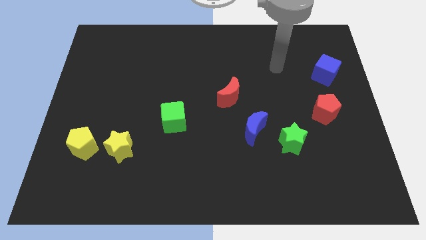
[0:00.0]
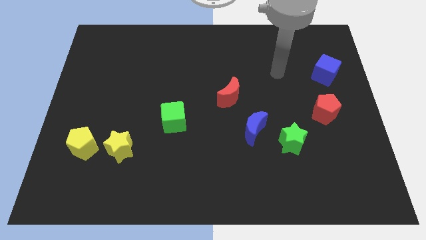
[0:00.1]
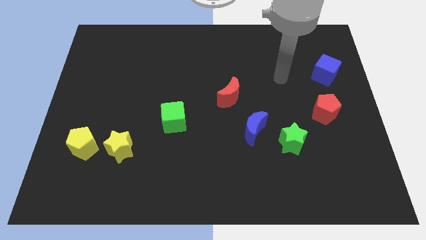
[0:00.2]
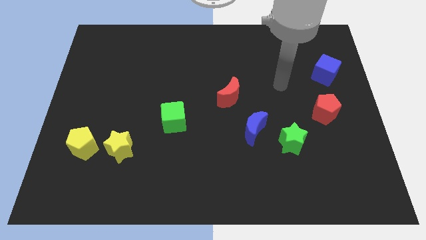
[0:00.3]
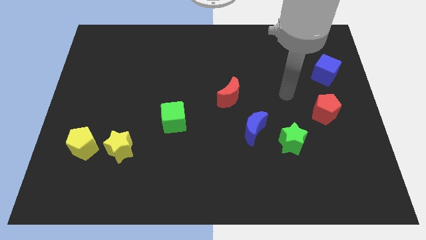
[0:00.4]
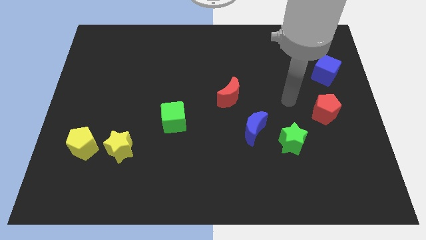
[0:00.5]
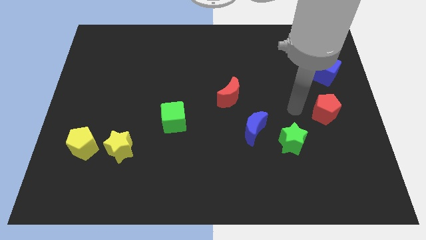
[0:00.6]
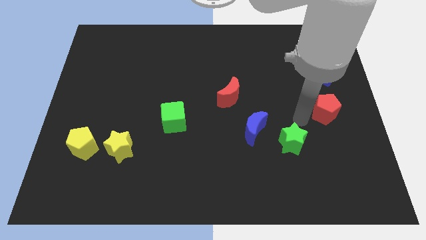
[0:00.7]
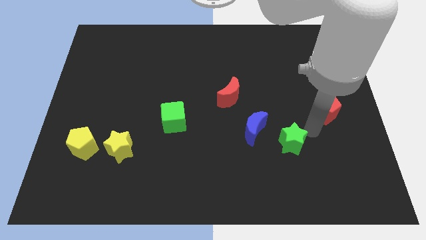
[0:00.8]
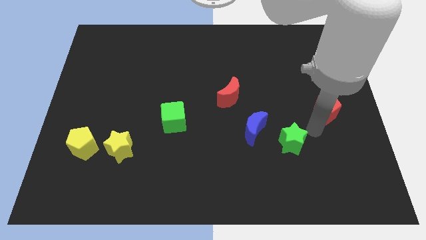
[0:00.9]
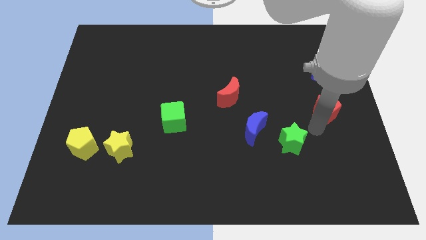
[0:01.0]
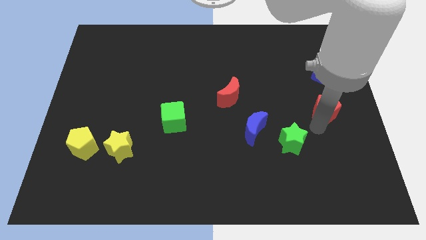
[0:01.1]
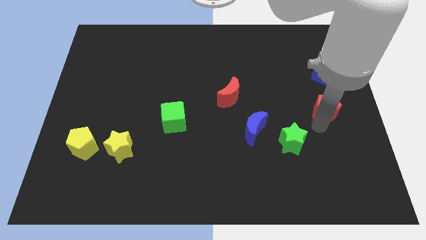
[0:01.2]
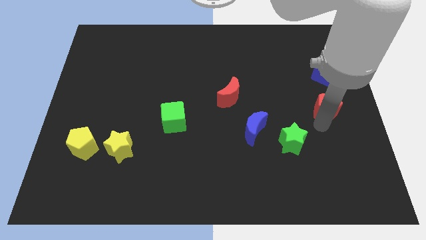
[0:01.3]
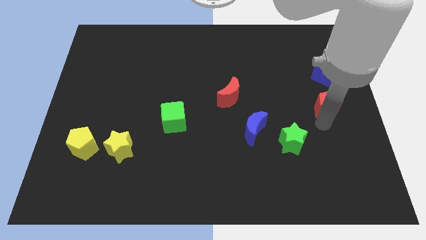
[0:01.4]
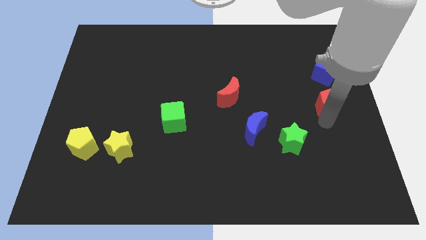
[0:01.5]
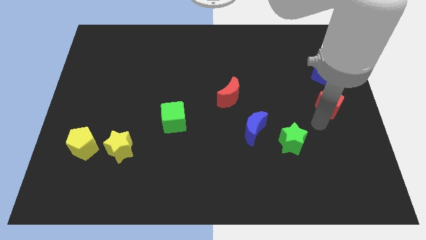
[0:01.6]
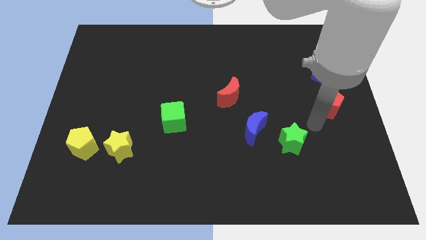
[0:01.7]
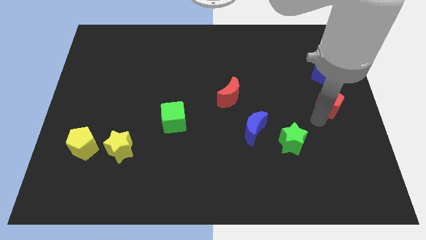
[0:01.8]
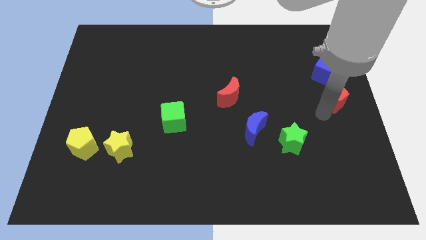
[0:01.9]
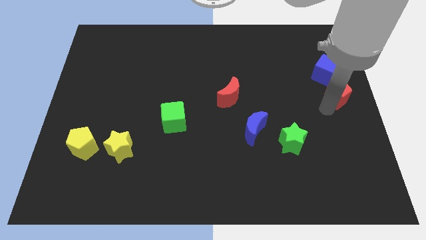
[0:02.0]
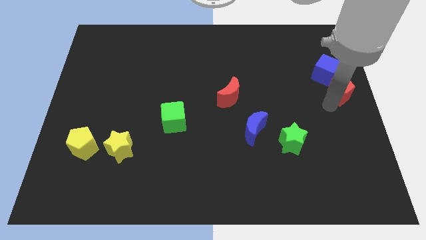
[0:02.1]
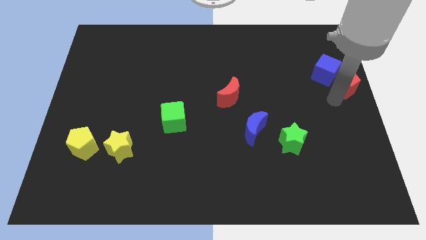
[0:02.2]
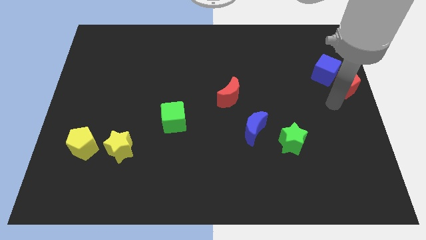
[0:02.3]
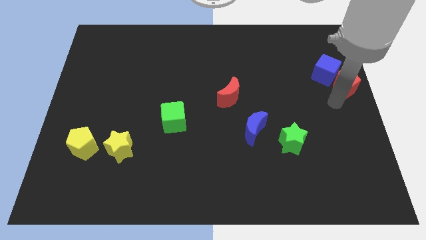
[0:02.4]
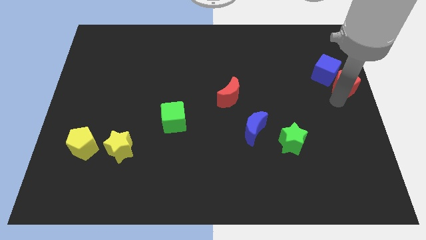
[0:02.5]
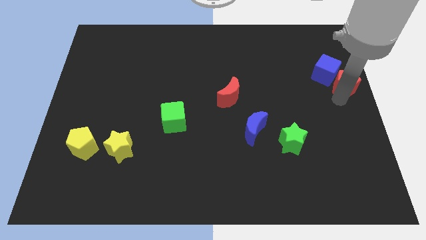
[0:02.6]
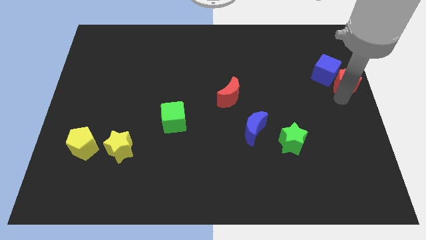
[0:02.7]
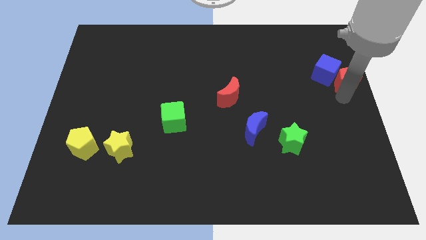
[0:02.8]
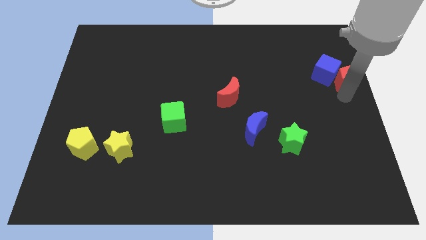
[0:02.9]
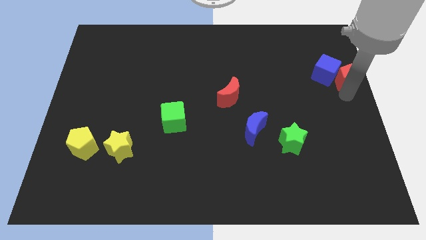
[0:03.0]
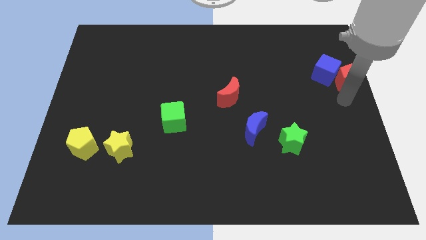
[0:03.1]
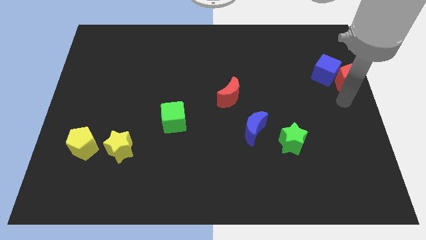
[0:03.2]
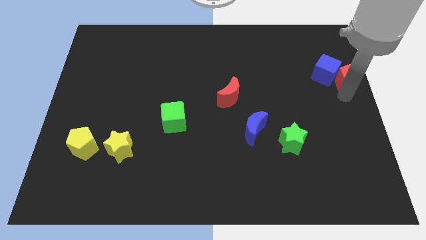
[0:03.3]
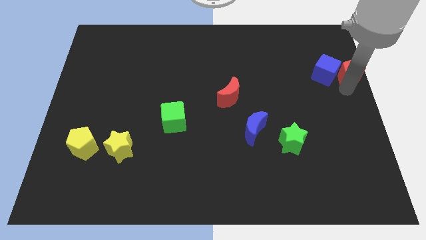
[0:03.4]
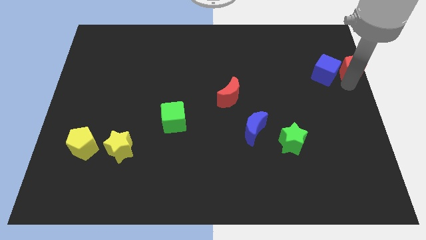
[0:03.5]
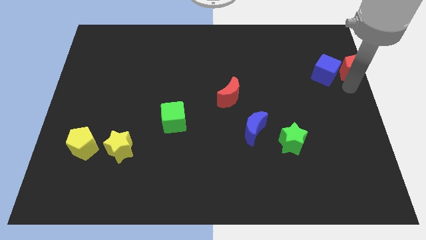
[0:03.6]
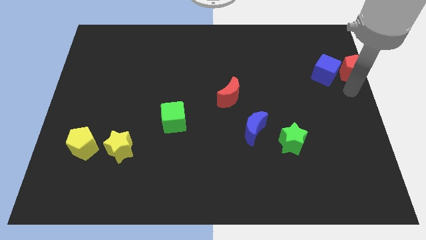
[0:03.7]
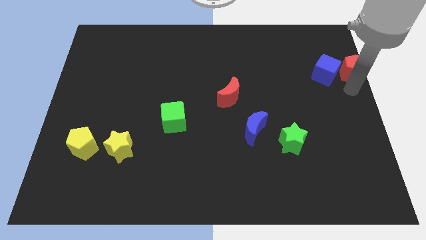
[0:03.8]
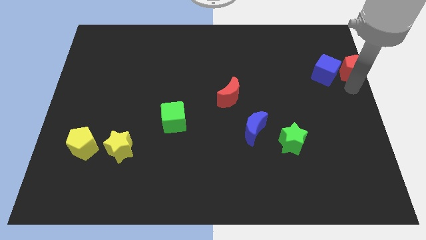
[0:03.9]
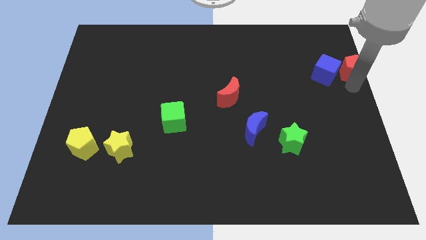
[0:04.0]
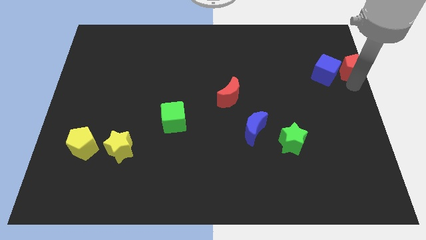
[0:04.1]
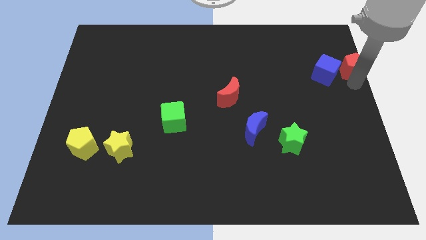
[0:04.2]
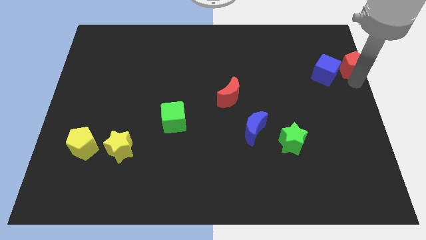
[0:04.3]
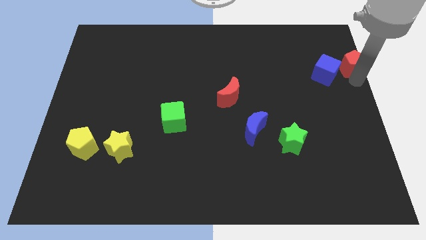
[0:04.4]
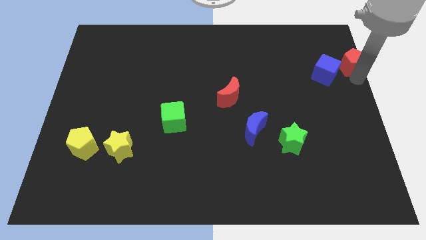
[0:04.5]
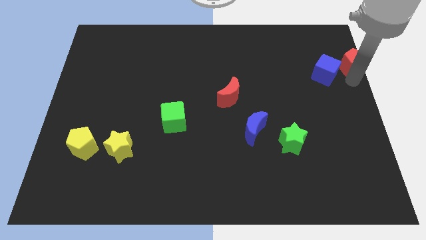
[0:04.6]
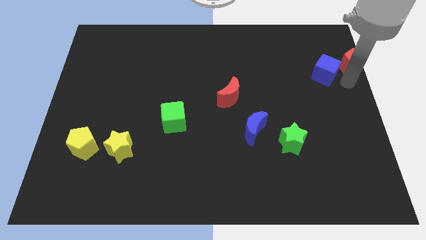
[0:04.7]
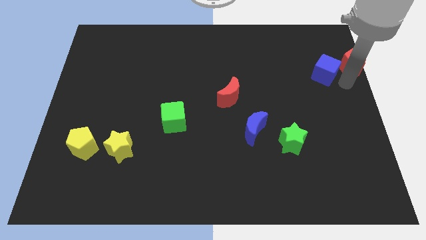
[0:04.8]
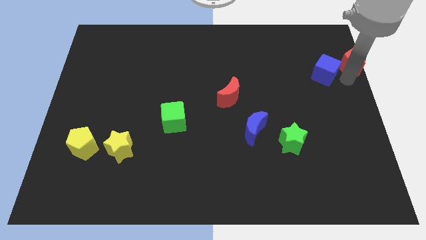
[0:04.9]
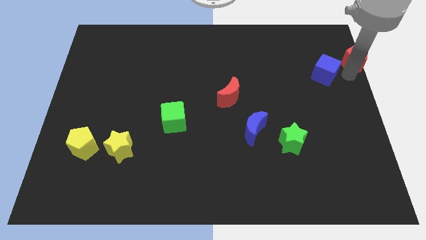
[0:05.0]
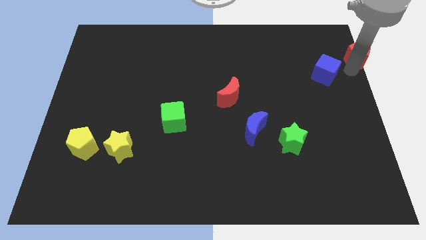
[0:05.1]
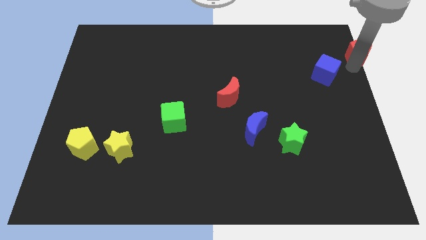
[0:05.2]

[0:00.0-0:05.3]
move the red pentagon to the upper right corner

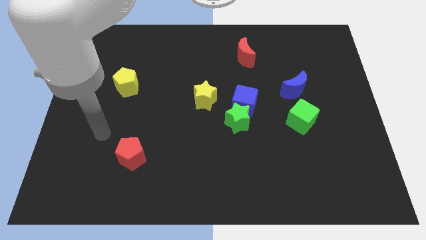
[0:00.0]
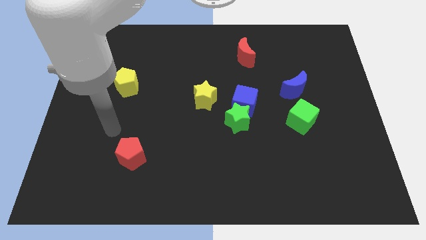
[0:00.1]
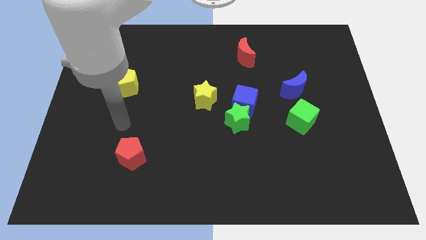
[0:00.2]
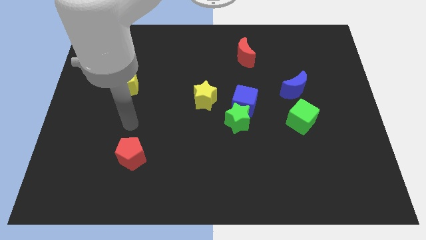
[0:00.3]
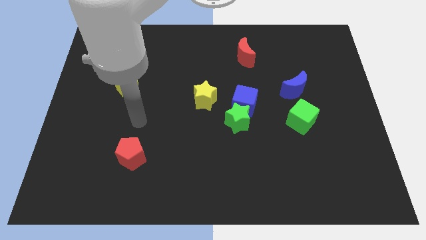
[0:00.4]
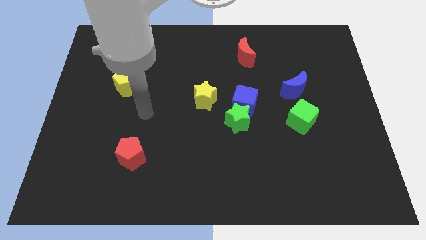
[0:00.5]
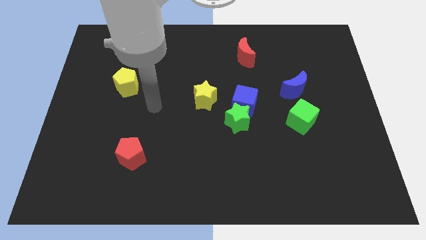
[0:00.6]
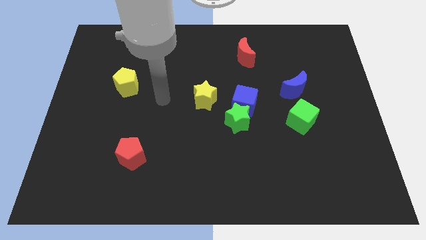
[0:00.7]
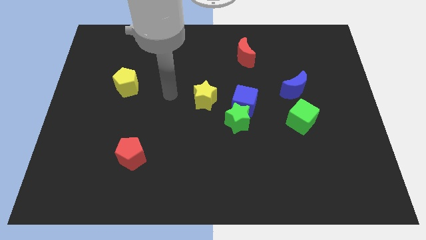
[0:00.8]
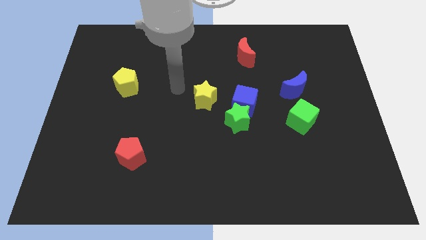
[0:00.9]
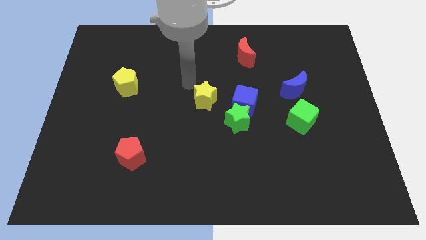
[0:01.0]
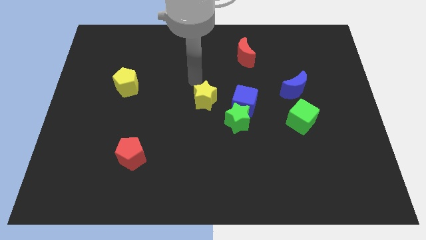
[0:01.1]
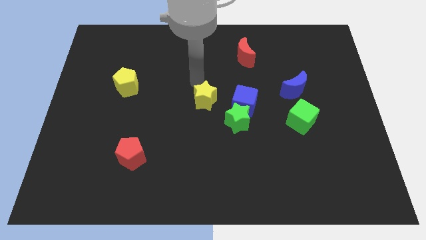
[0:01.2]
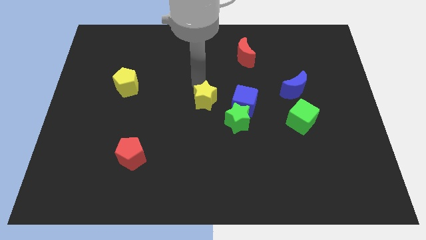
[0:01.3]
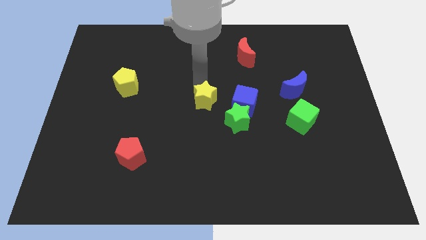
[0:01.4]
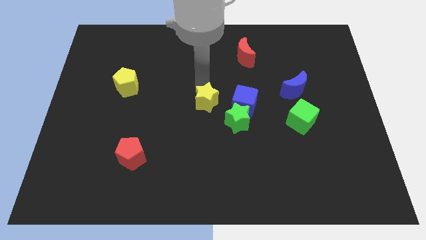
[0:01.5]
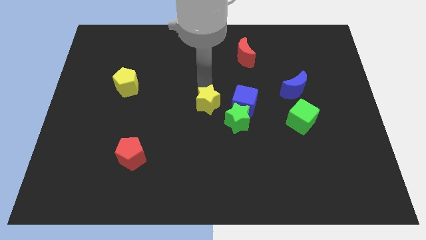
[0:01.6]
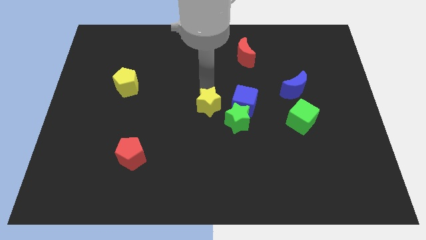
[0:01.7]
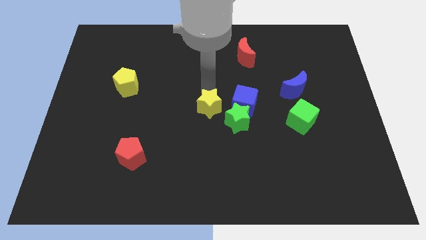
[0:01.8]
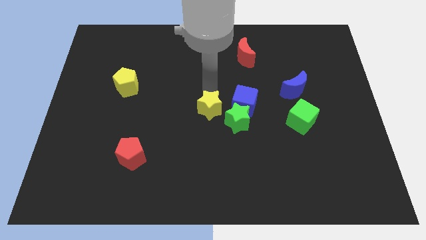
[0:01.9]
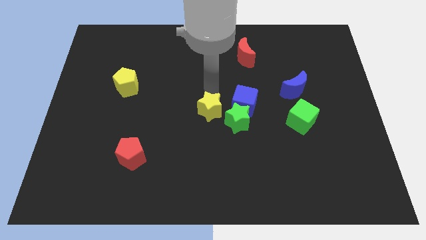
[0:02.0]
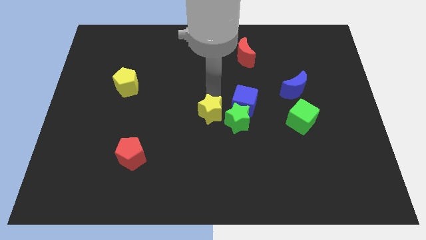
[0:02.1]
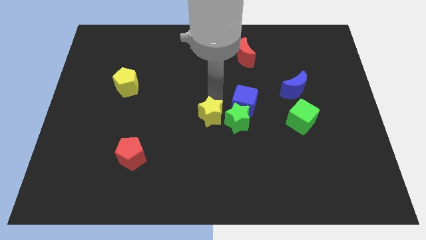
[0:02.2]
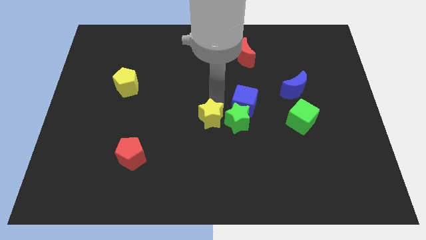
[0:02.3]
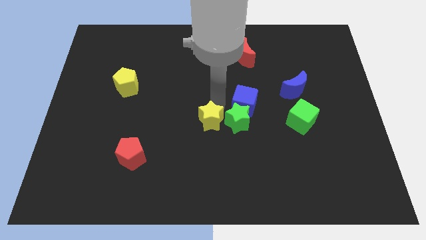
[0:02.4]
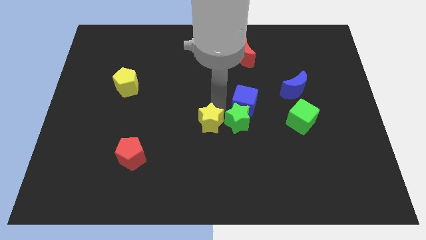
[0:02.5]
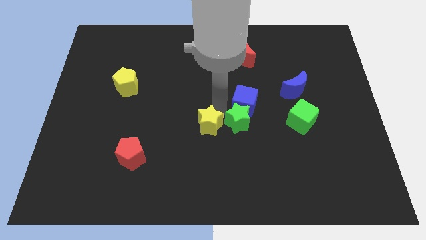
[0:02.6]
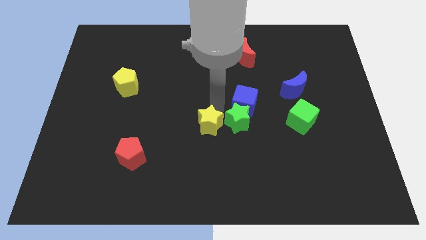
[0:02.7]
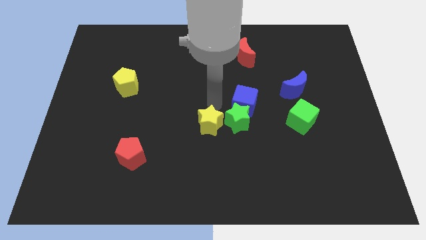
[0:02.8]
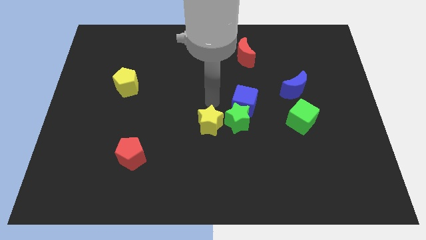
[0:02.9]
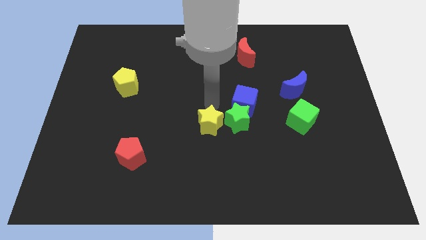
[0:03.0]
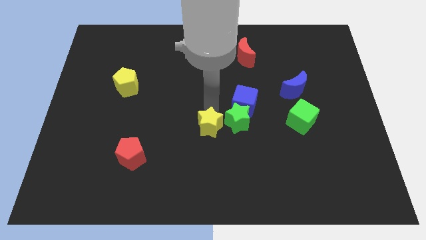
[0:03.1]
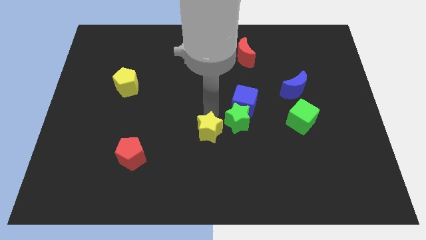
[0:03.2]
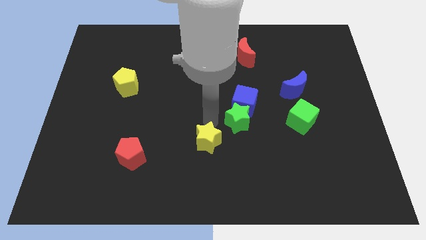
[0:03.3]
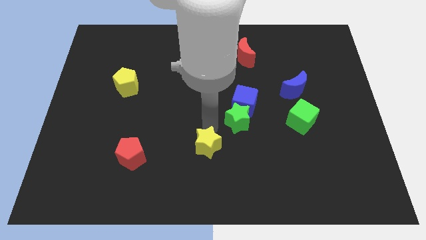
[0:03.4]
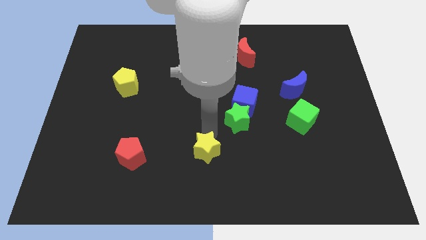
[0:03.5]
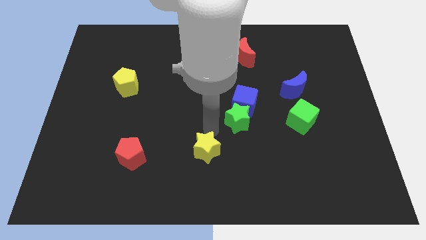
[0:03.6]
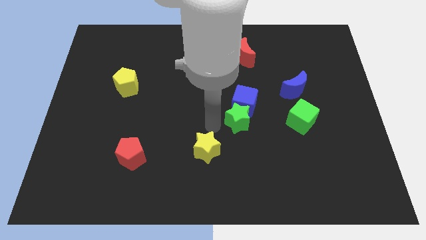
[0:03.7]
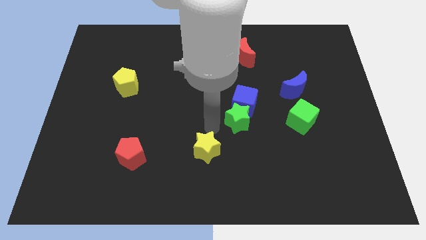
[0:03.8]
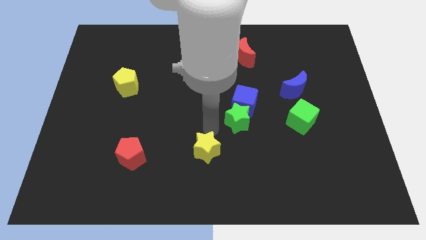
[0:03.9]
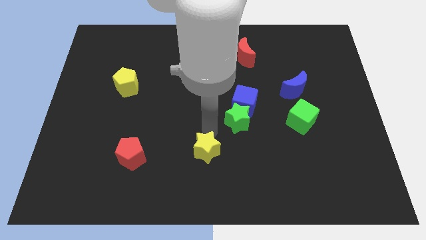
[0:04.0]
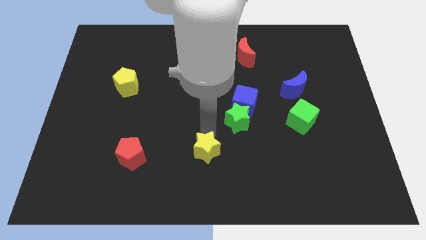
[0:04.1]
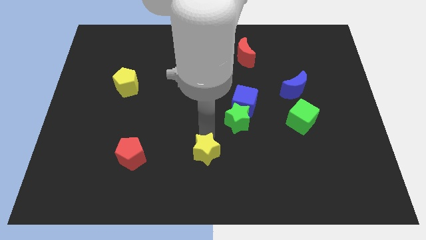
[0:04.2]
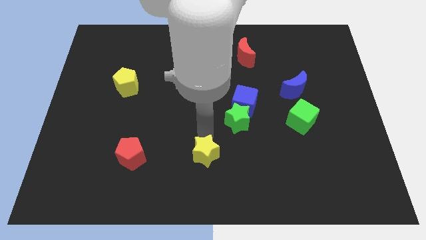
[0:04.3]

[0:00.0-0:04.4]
move the yellow star to the bottom side
